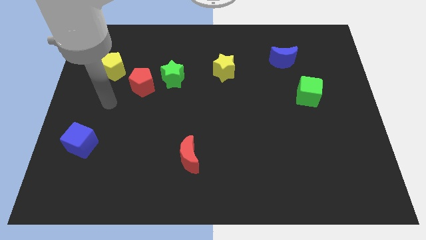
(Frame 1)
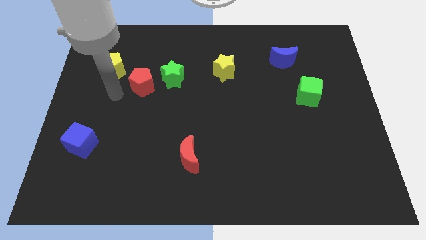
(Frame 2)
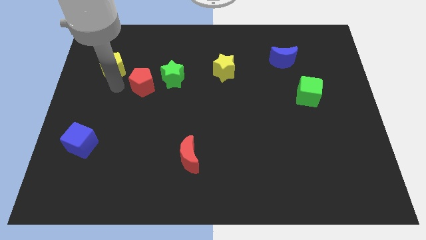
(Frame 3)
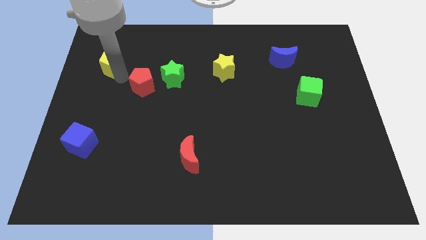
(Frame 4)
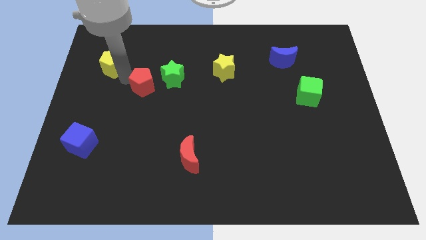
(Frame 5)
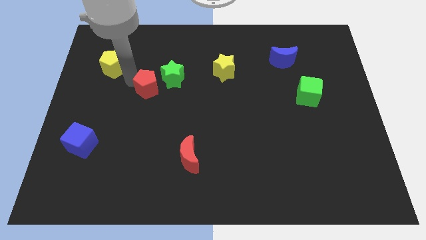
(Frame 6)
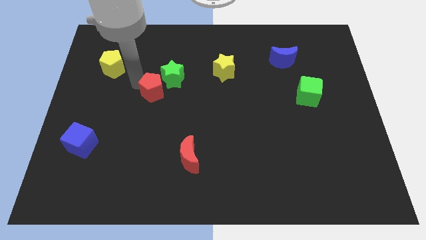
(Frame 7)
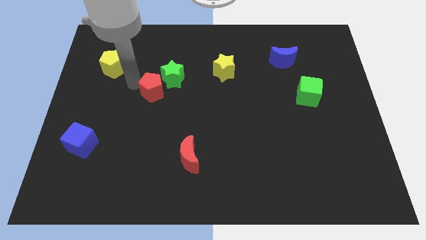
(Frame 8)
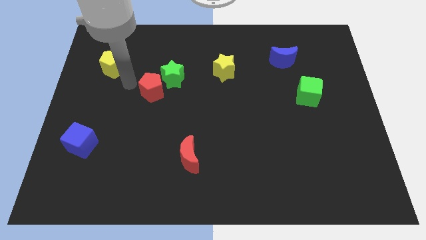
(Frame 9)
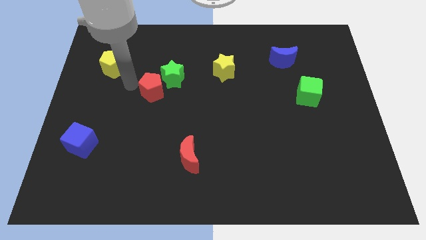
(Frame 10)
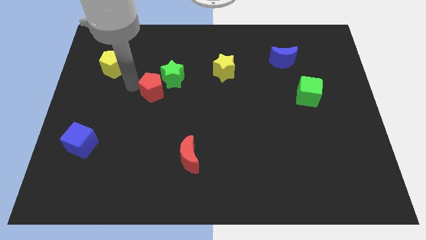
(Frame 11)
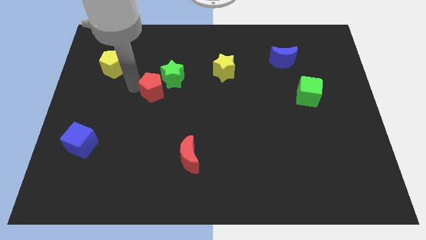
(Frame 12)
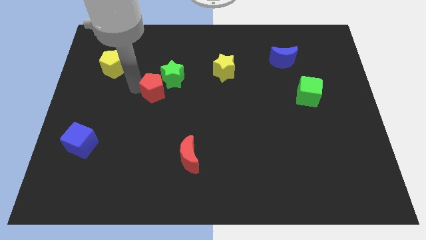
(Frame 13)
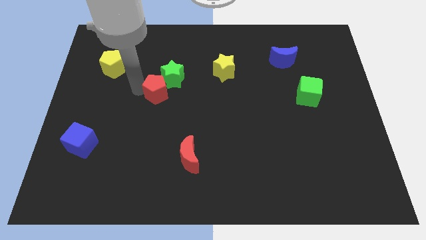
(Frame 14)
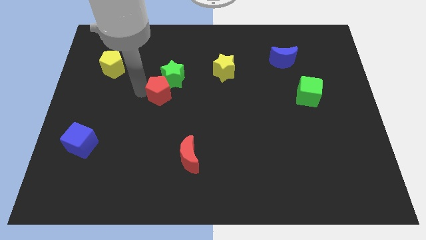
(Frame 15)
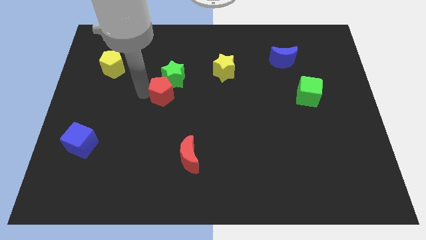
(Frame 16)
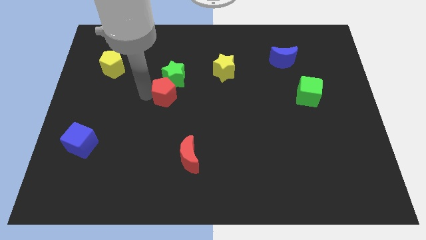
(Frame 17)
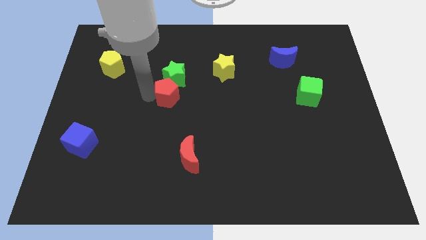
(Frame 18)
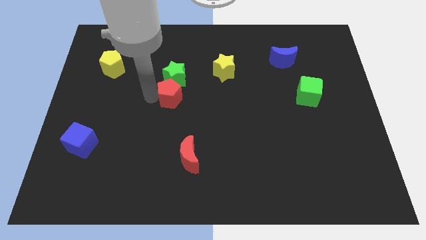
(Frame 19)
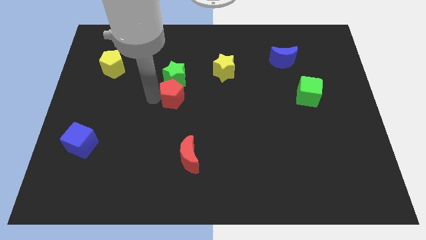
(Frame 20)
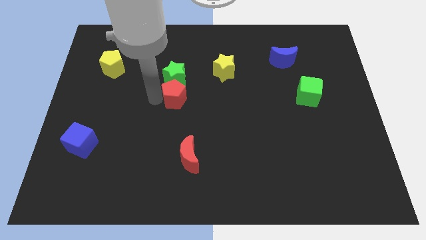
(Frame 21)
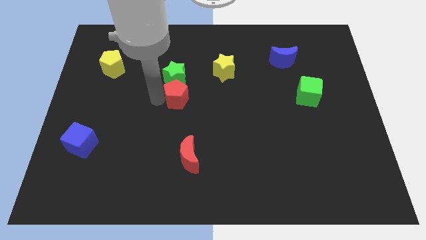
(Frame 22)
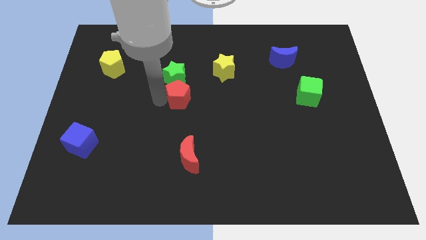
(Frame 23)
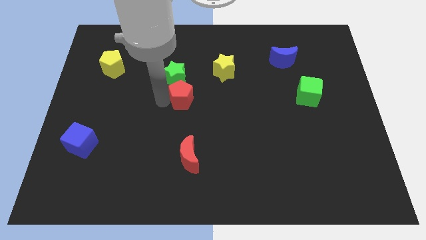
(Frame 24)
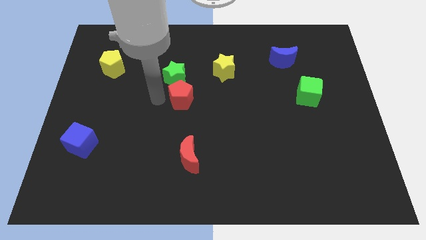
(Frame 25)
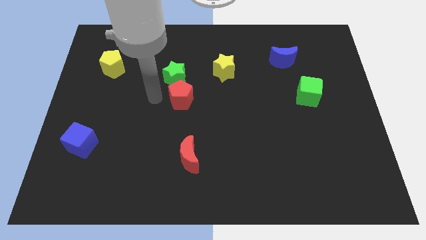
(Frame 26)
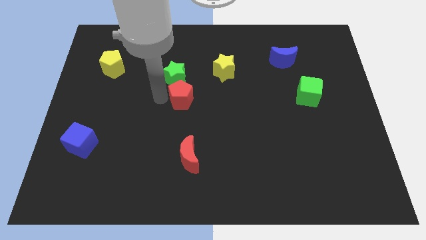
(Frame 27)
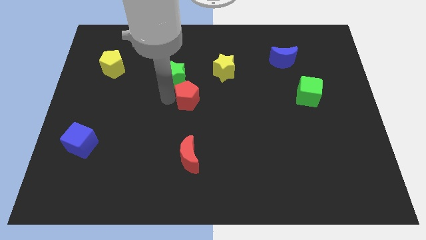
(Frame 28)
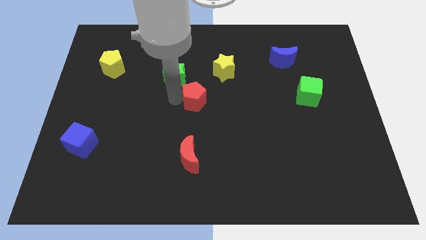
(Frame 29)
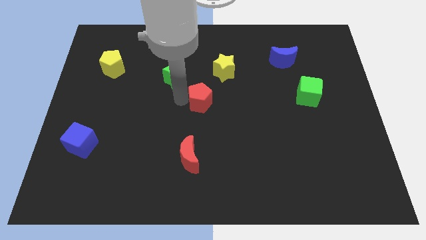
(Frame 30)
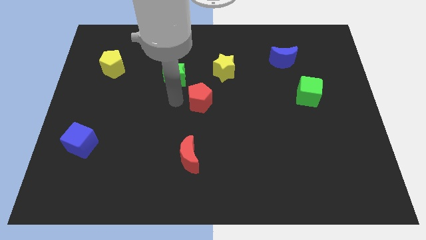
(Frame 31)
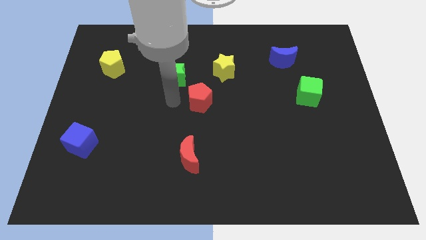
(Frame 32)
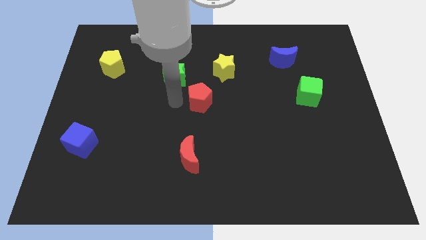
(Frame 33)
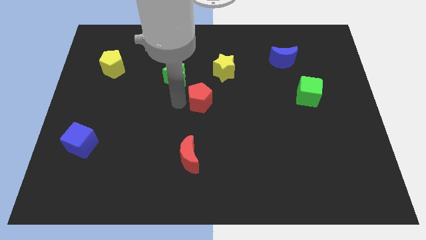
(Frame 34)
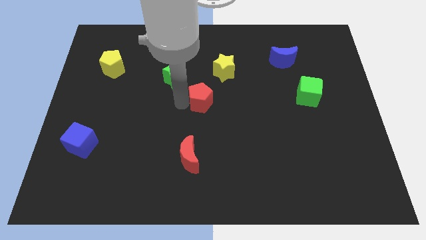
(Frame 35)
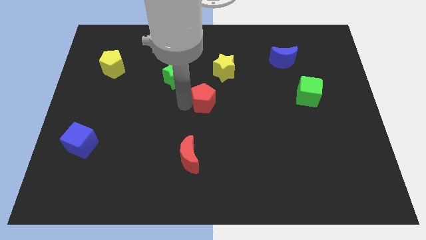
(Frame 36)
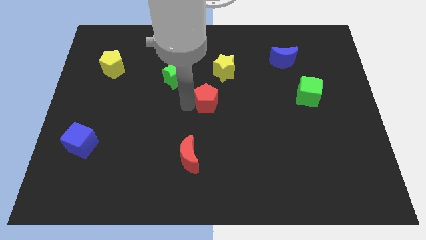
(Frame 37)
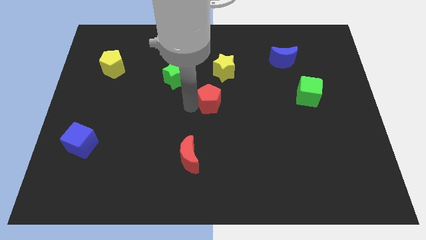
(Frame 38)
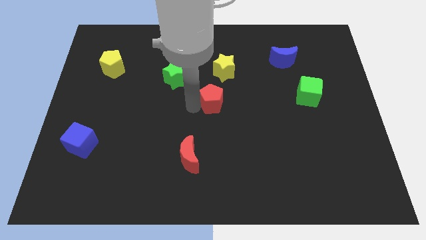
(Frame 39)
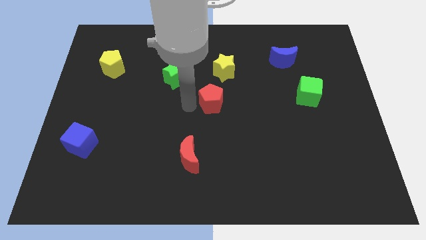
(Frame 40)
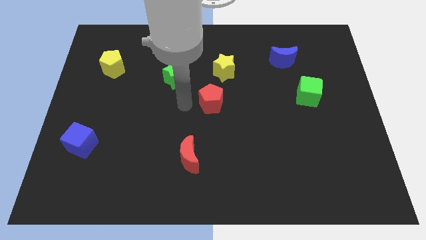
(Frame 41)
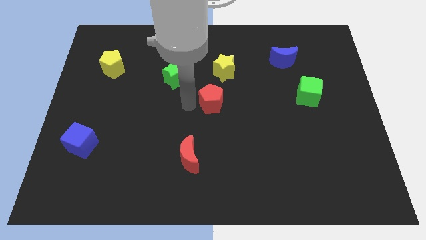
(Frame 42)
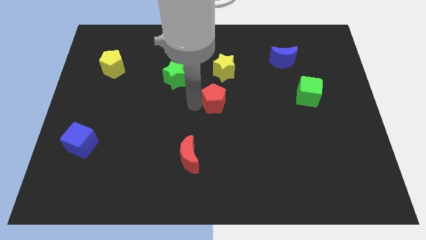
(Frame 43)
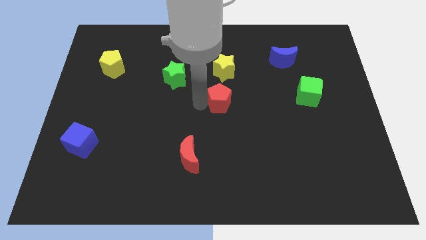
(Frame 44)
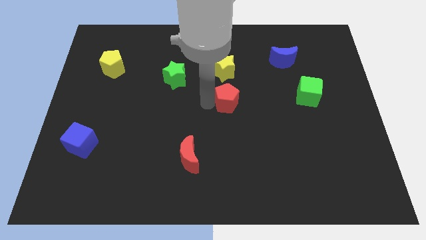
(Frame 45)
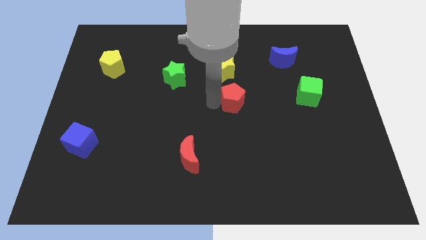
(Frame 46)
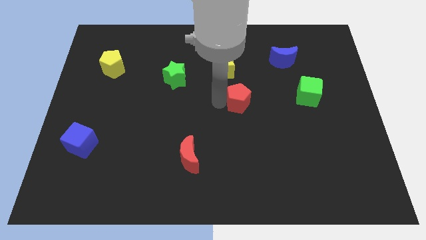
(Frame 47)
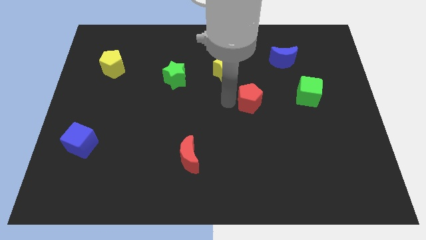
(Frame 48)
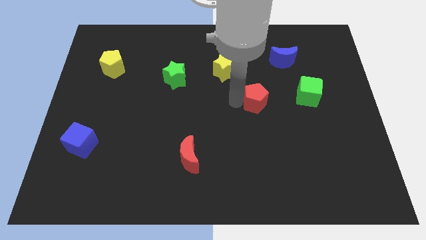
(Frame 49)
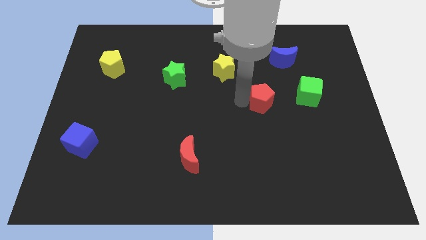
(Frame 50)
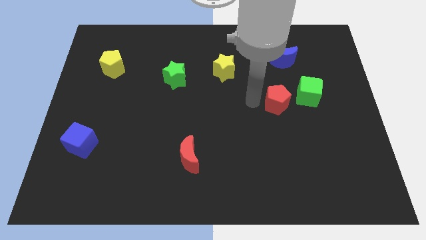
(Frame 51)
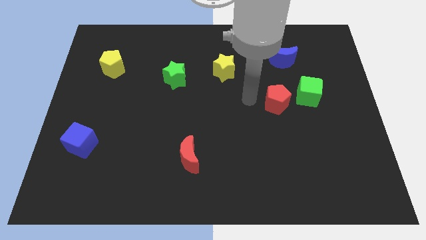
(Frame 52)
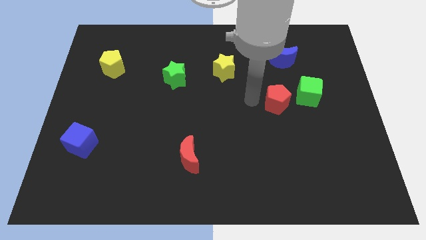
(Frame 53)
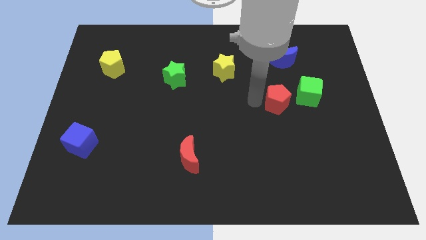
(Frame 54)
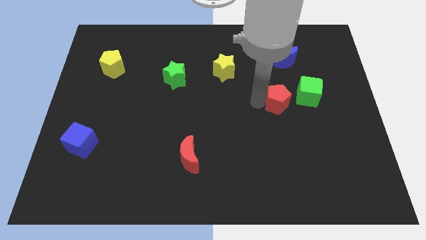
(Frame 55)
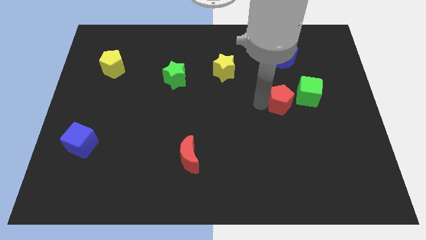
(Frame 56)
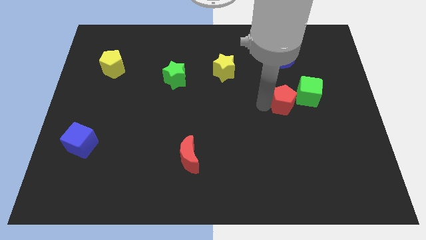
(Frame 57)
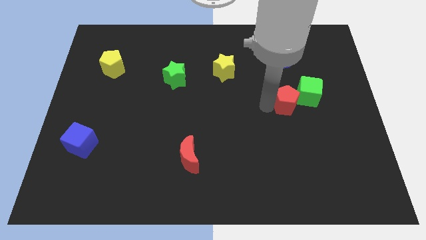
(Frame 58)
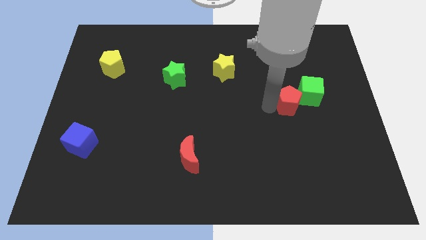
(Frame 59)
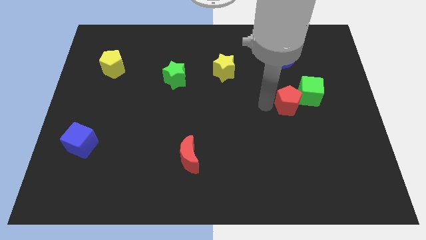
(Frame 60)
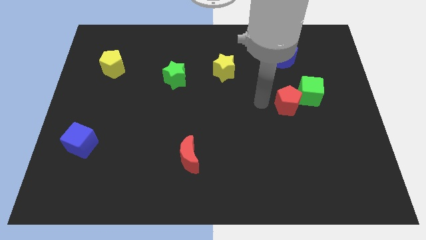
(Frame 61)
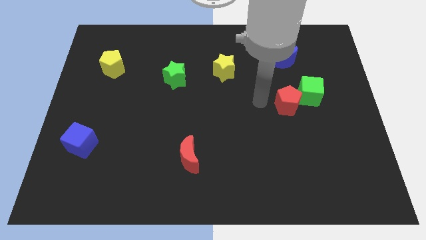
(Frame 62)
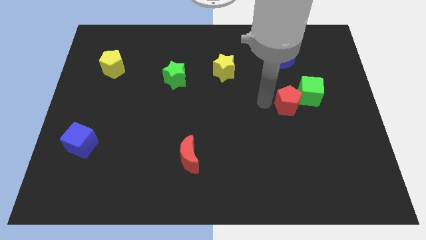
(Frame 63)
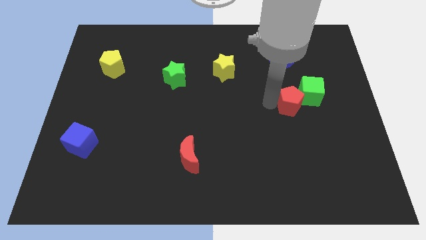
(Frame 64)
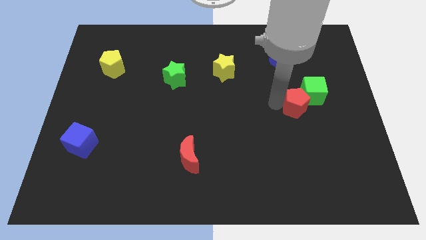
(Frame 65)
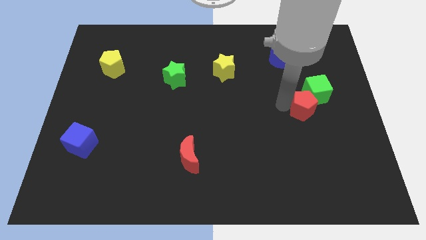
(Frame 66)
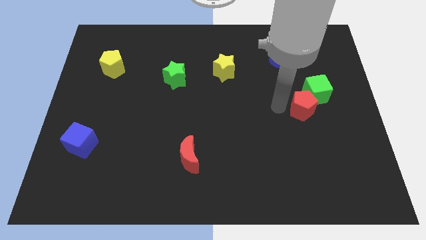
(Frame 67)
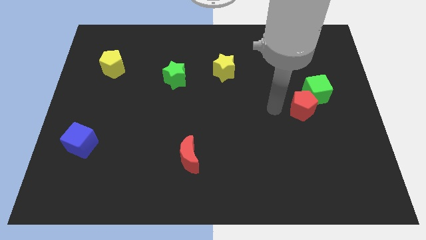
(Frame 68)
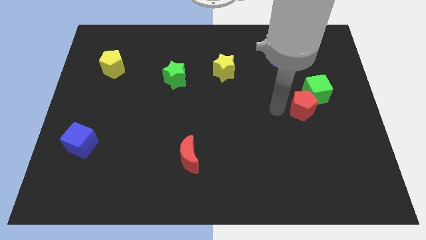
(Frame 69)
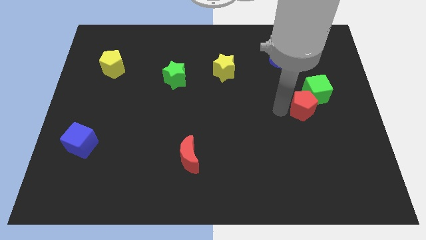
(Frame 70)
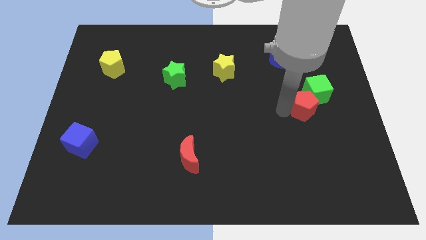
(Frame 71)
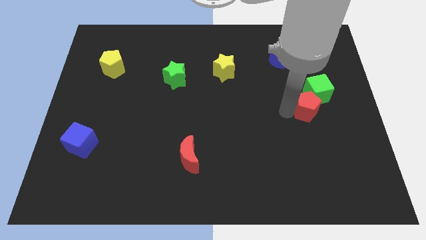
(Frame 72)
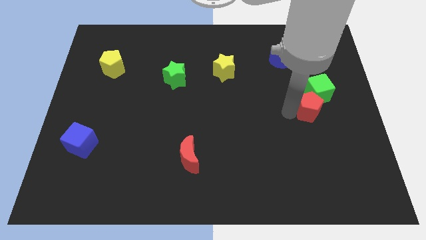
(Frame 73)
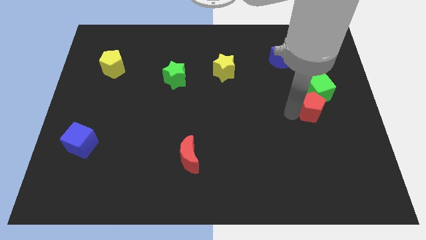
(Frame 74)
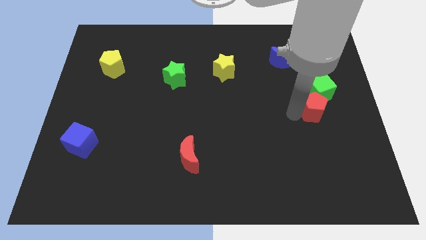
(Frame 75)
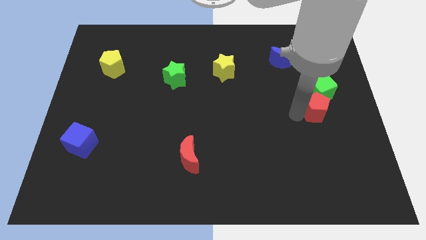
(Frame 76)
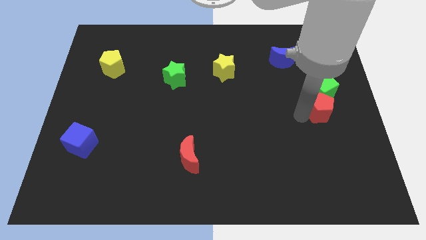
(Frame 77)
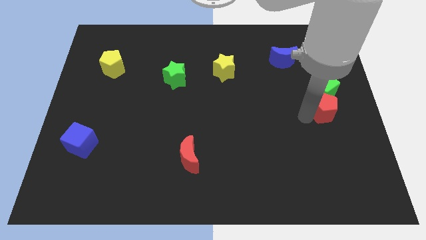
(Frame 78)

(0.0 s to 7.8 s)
put the red pentagon to the right side
